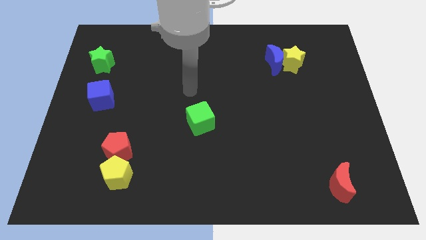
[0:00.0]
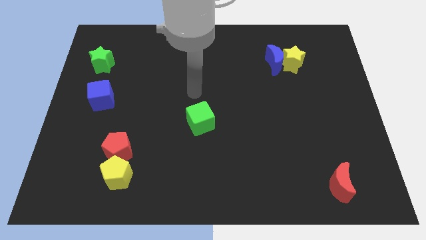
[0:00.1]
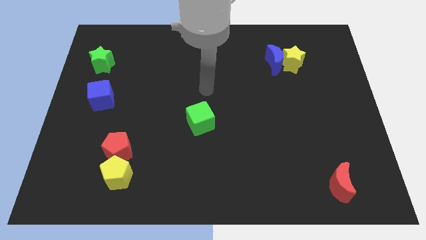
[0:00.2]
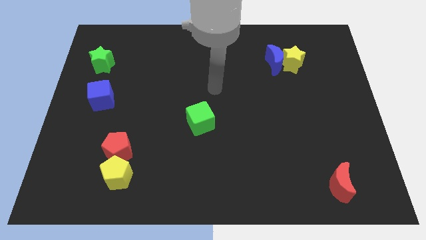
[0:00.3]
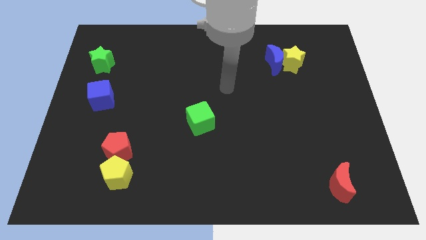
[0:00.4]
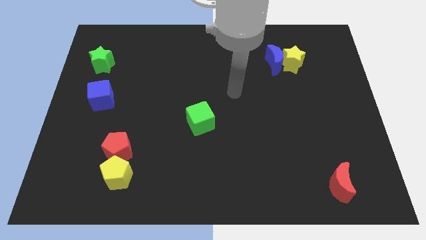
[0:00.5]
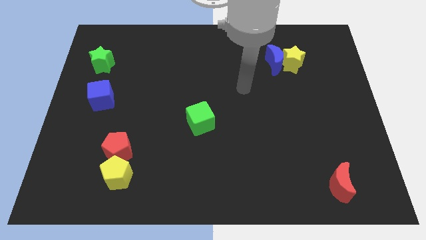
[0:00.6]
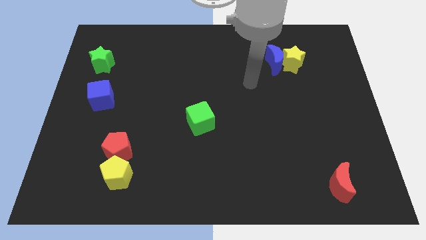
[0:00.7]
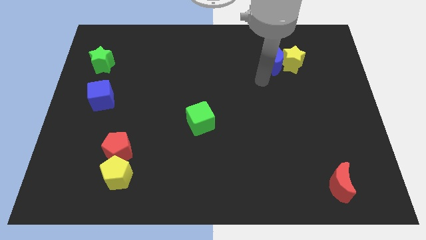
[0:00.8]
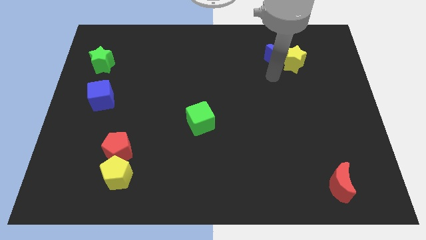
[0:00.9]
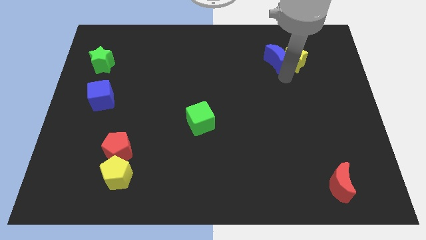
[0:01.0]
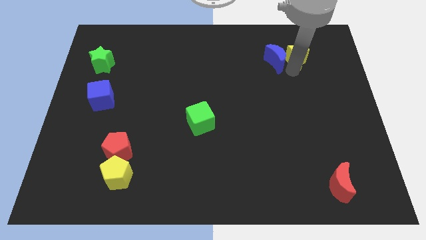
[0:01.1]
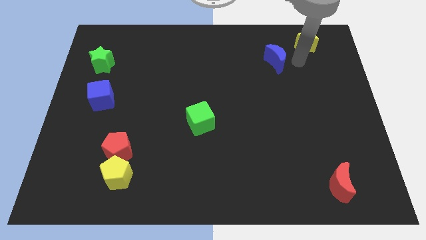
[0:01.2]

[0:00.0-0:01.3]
move the blue moon away from the yellow star

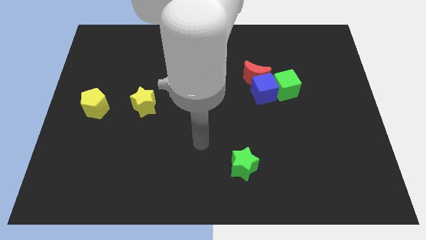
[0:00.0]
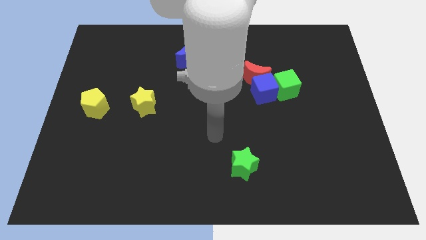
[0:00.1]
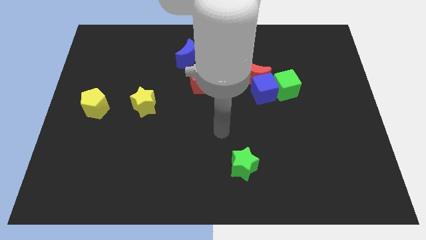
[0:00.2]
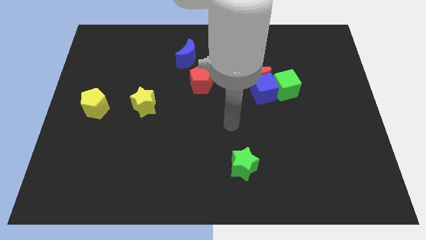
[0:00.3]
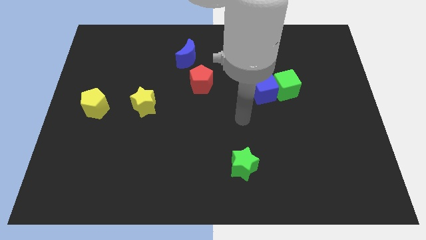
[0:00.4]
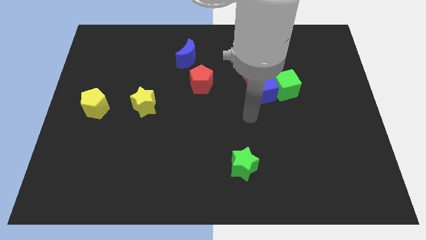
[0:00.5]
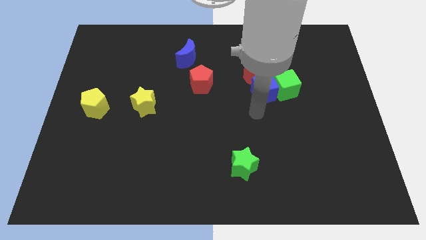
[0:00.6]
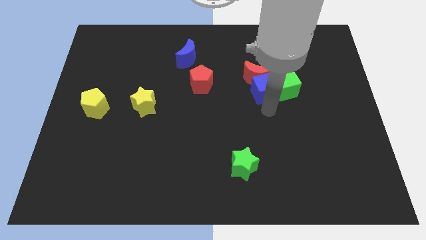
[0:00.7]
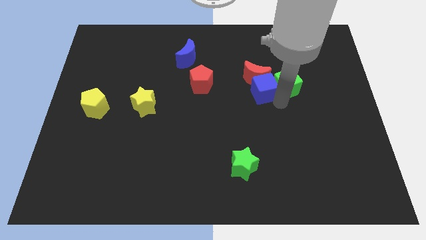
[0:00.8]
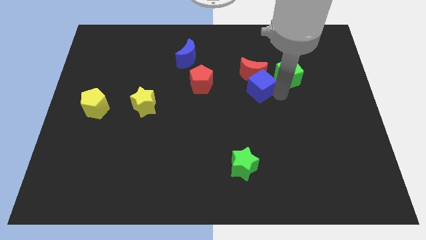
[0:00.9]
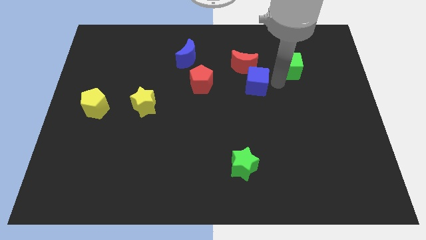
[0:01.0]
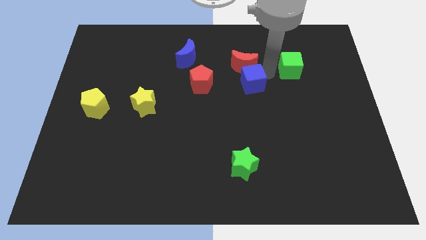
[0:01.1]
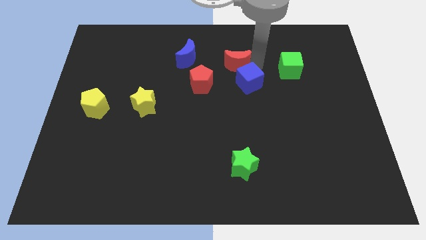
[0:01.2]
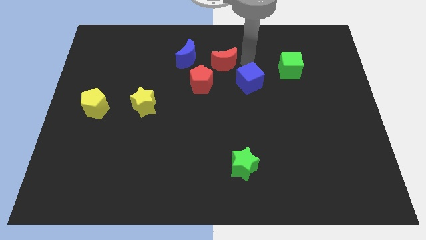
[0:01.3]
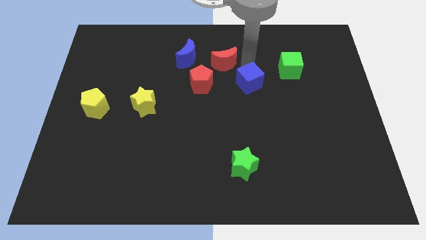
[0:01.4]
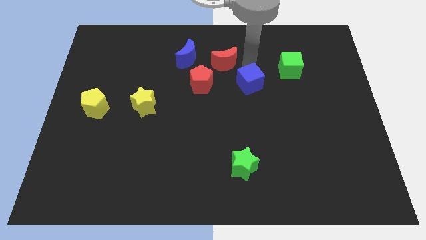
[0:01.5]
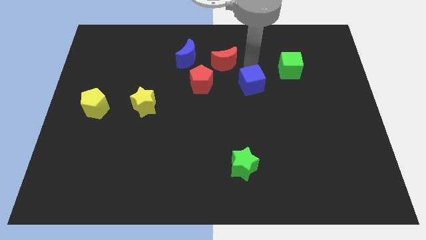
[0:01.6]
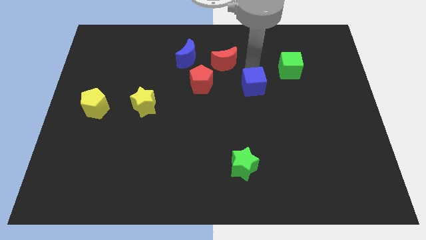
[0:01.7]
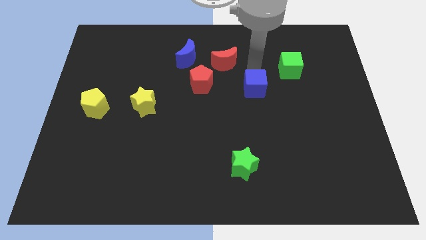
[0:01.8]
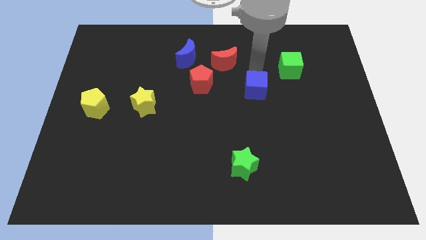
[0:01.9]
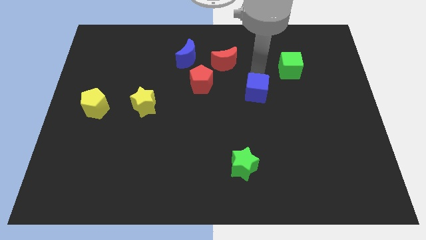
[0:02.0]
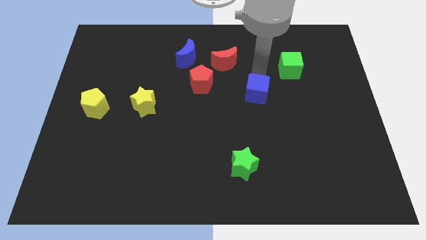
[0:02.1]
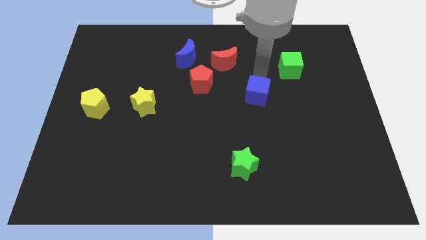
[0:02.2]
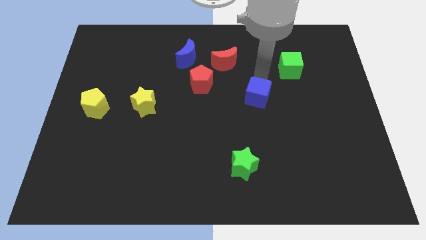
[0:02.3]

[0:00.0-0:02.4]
move the blue cube away from the red moon and green cube

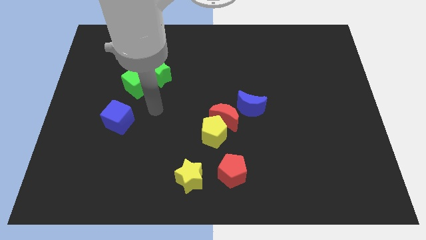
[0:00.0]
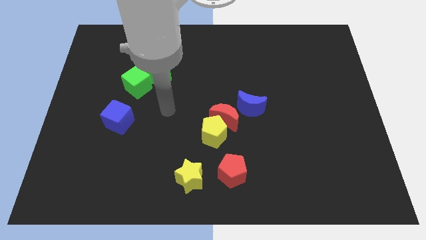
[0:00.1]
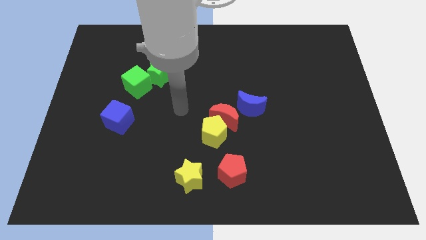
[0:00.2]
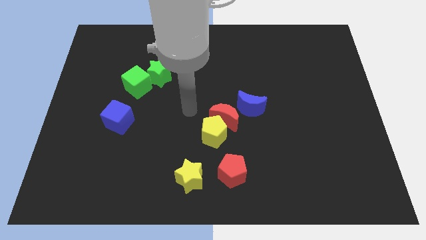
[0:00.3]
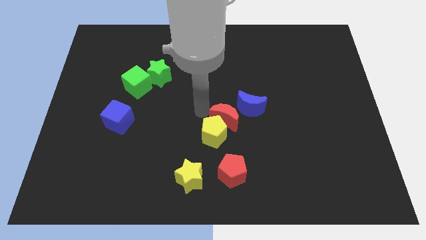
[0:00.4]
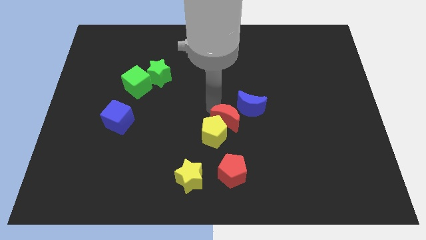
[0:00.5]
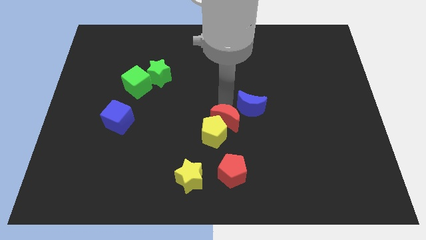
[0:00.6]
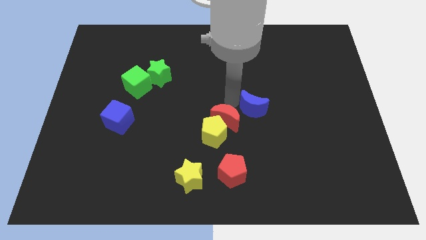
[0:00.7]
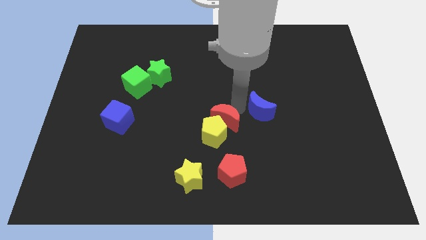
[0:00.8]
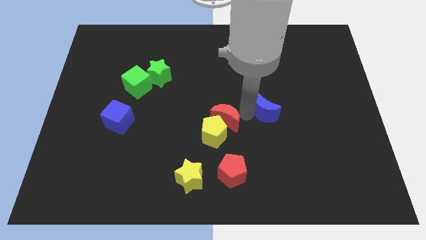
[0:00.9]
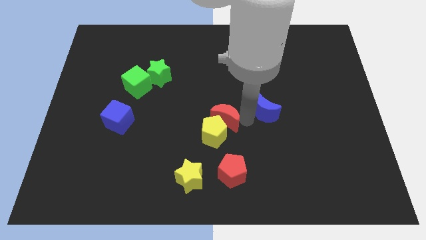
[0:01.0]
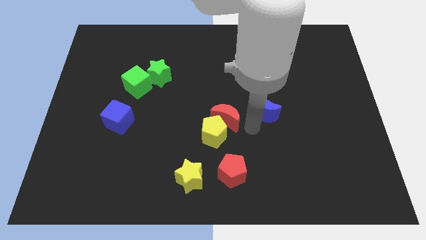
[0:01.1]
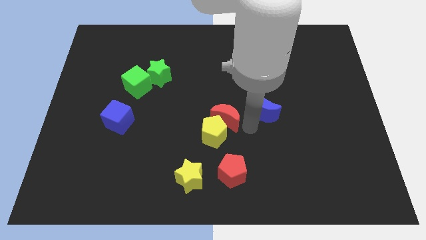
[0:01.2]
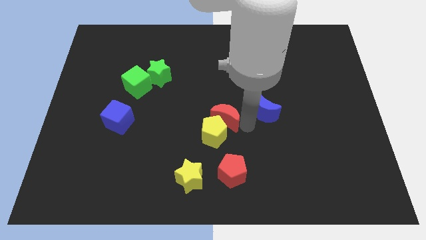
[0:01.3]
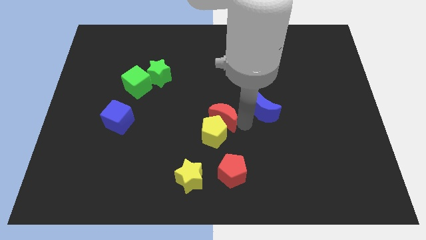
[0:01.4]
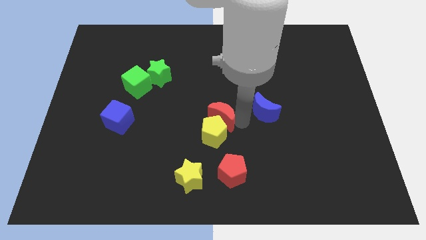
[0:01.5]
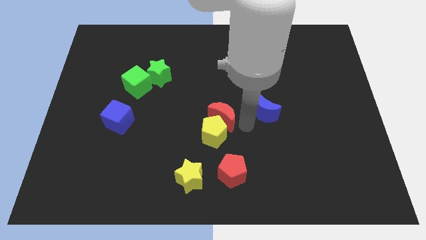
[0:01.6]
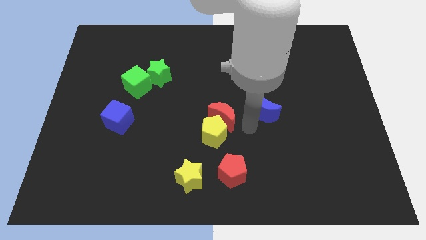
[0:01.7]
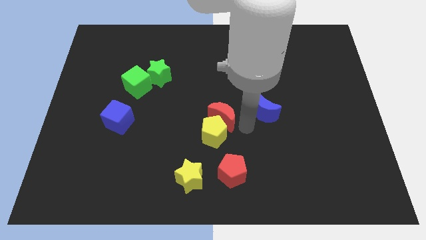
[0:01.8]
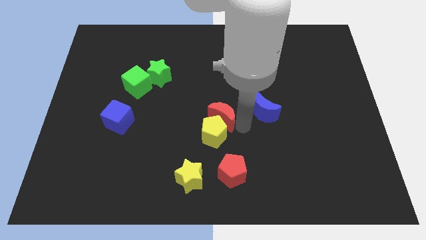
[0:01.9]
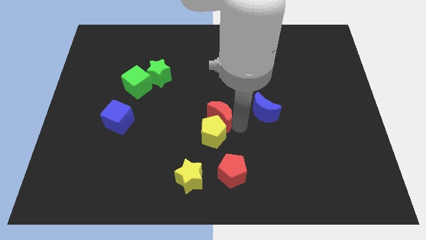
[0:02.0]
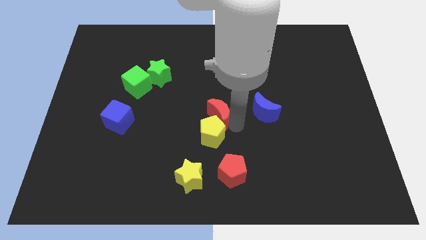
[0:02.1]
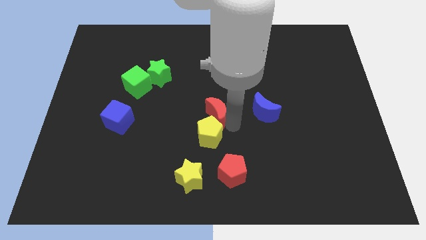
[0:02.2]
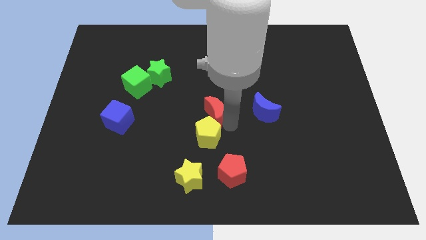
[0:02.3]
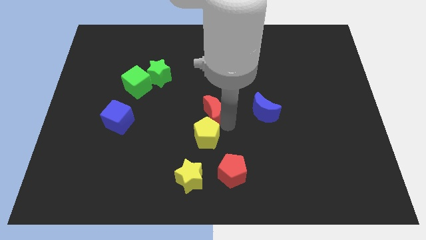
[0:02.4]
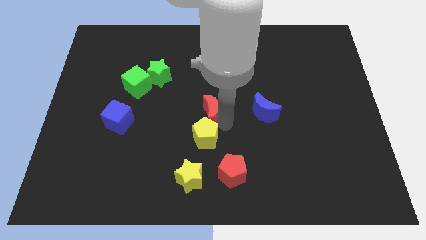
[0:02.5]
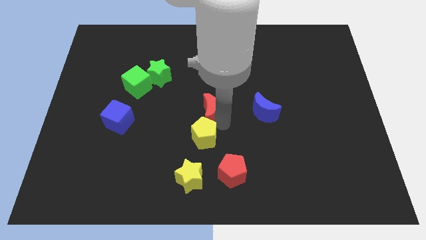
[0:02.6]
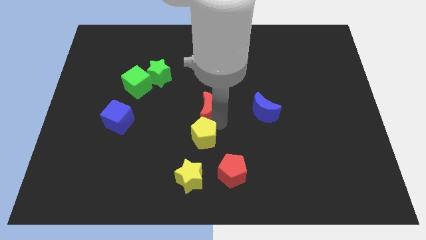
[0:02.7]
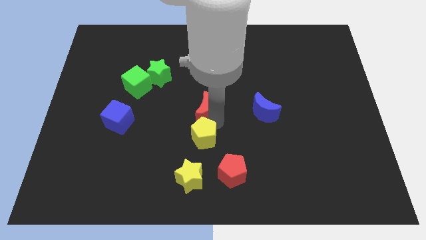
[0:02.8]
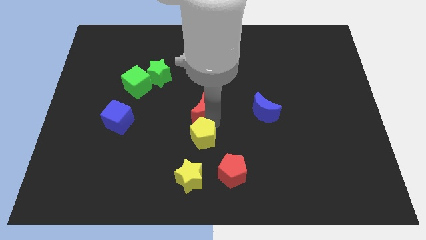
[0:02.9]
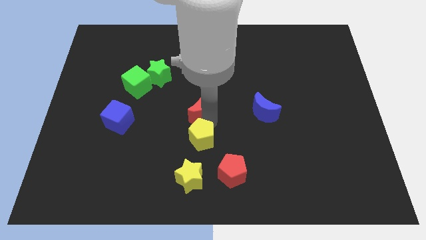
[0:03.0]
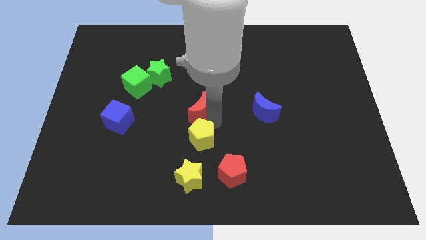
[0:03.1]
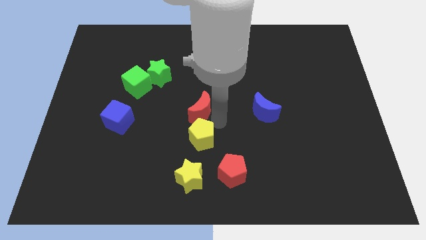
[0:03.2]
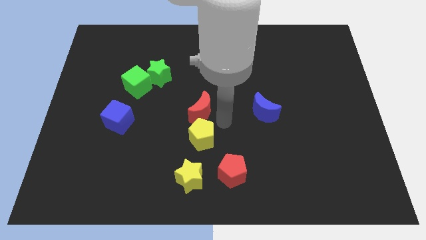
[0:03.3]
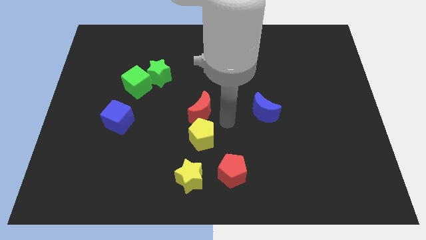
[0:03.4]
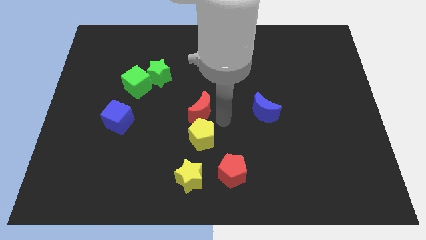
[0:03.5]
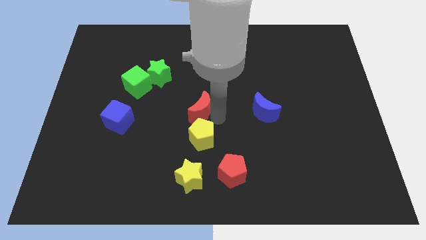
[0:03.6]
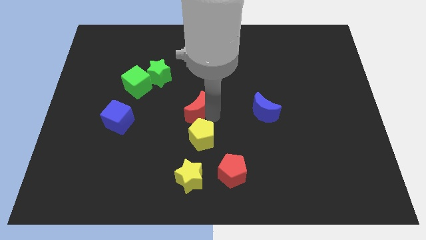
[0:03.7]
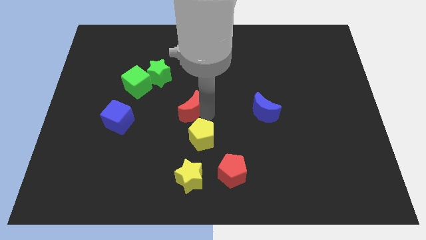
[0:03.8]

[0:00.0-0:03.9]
pull the red moon apart from the yellow pentagon and blue moon

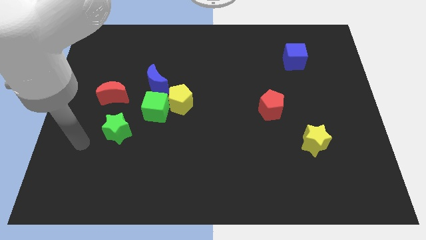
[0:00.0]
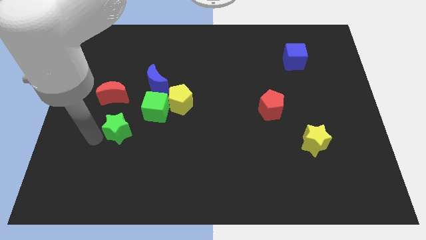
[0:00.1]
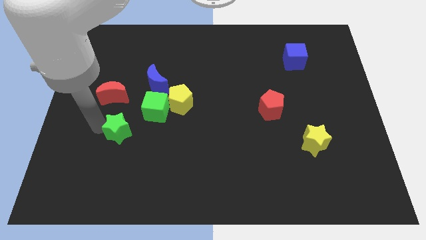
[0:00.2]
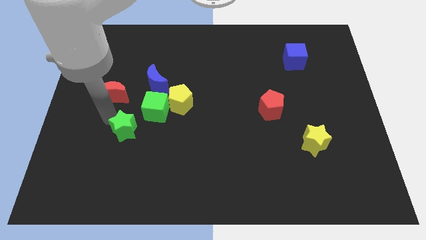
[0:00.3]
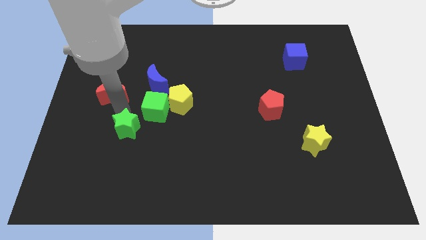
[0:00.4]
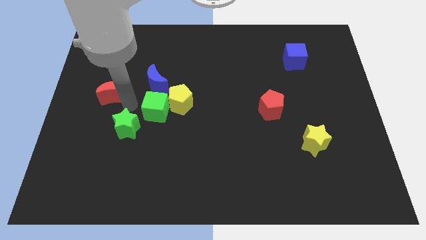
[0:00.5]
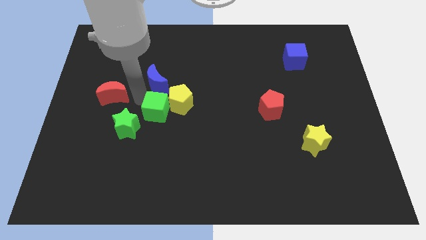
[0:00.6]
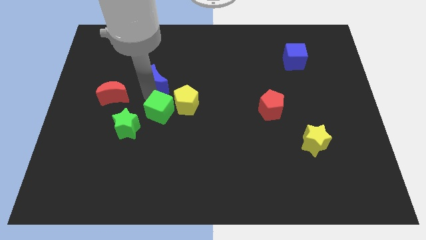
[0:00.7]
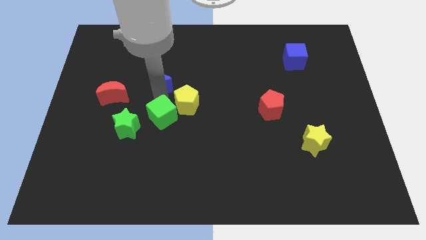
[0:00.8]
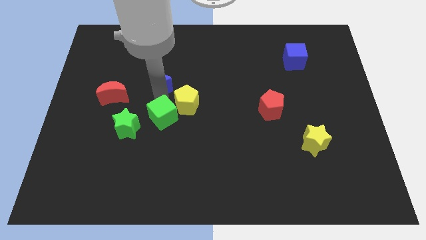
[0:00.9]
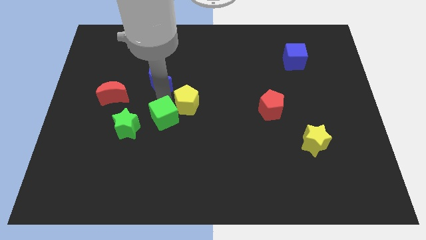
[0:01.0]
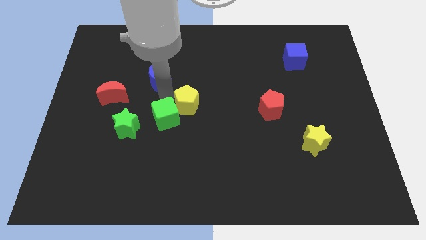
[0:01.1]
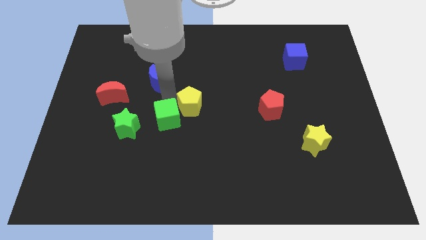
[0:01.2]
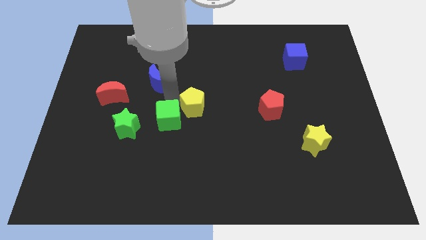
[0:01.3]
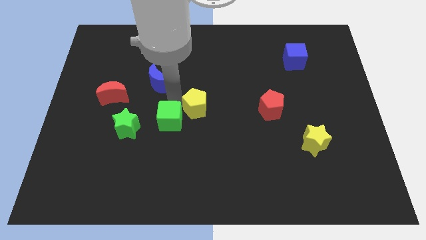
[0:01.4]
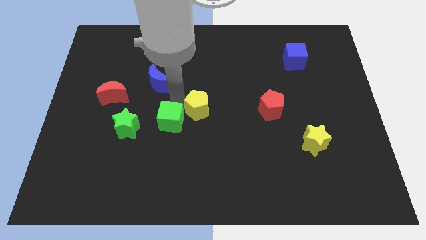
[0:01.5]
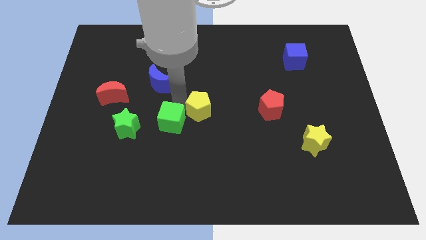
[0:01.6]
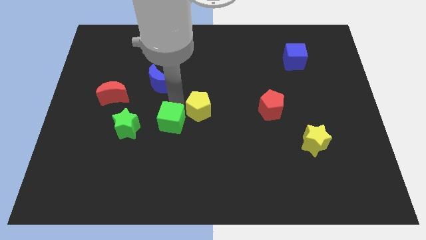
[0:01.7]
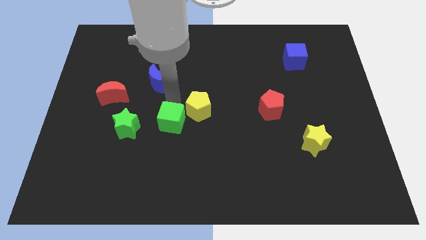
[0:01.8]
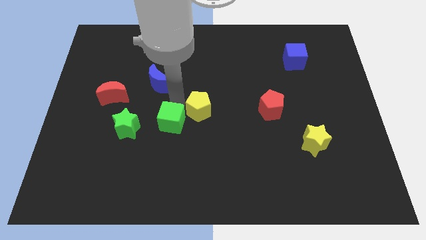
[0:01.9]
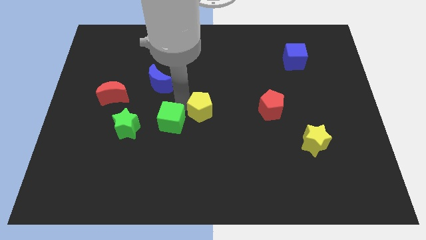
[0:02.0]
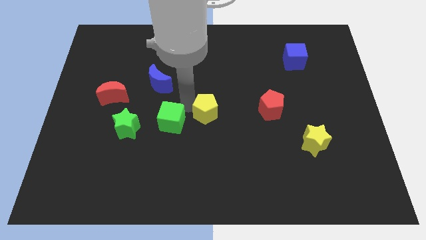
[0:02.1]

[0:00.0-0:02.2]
pull the yellow pentagon apart from the green cube and blue moon
